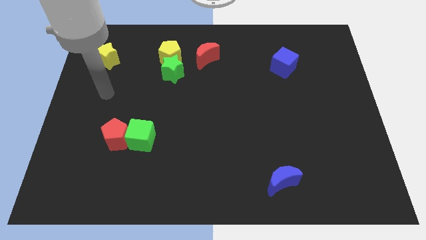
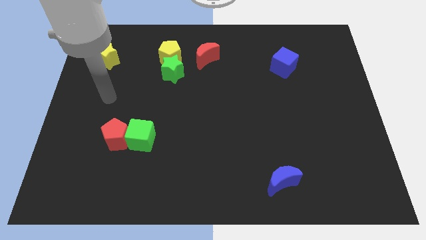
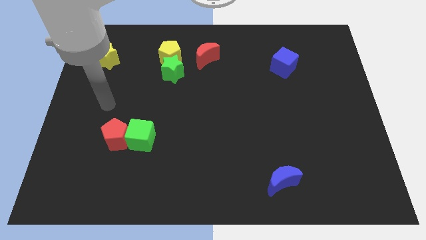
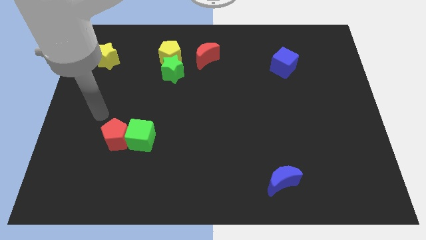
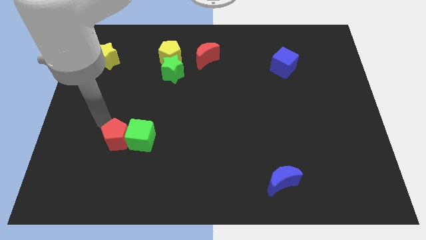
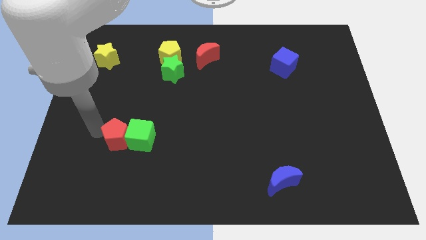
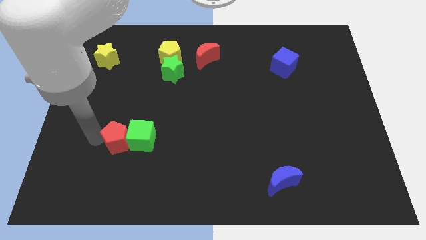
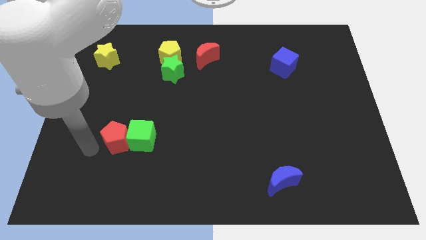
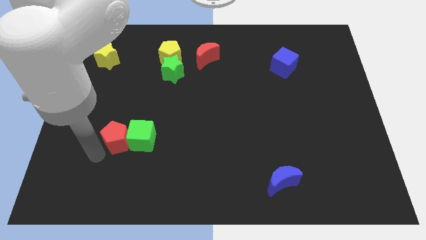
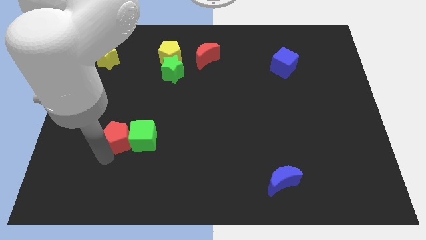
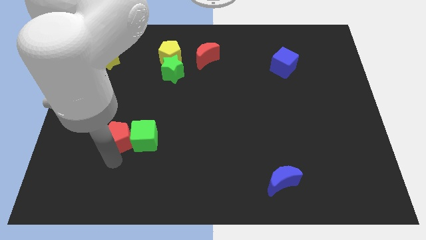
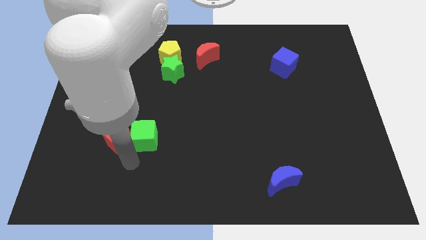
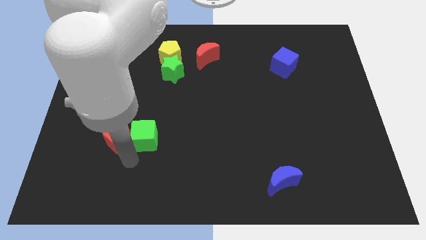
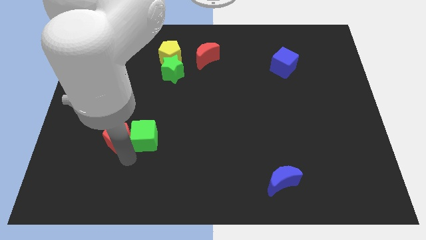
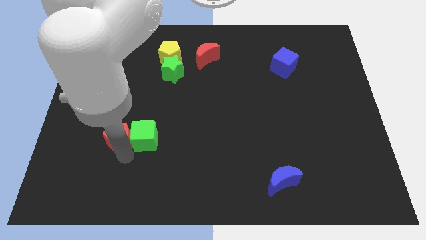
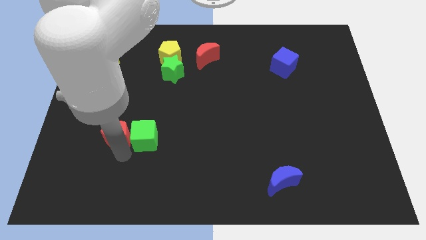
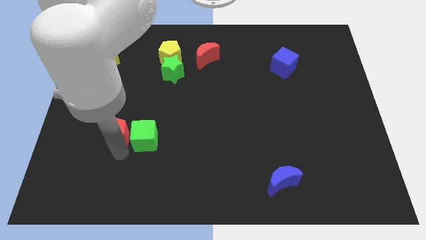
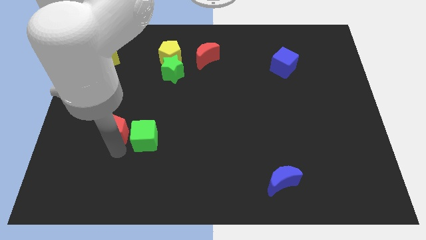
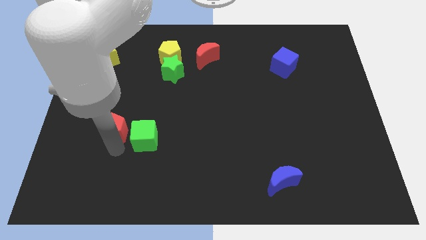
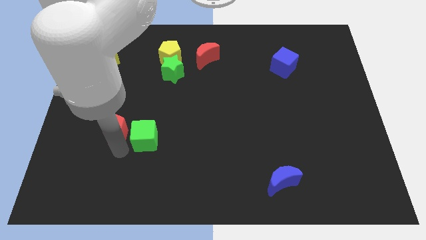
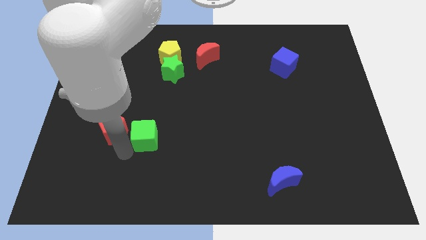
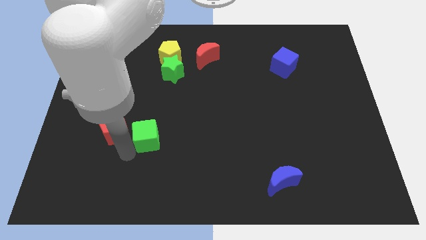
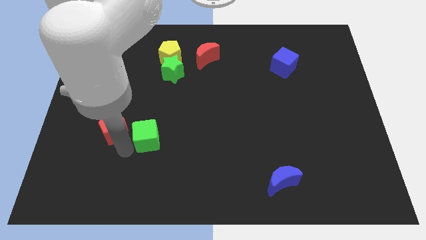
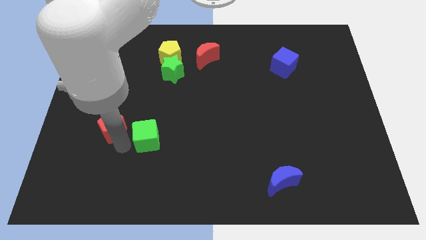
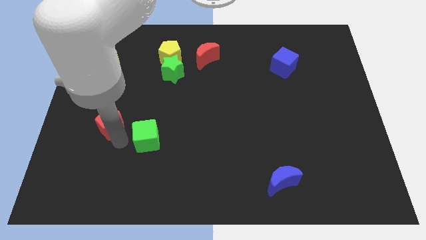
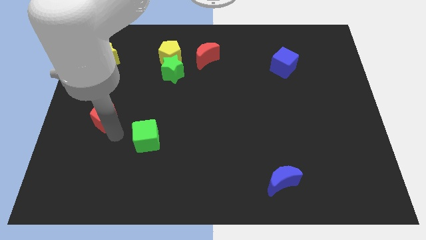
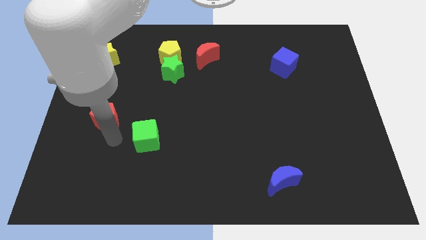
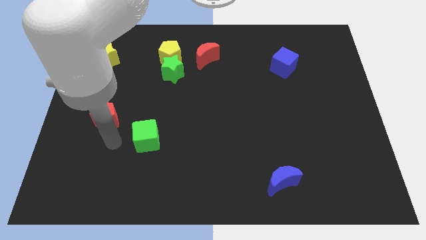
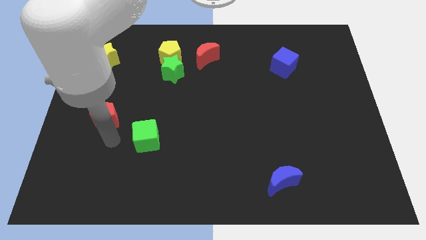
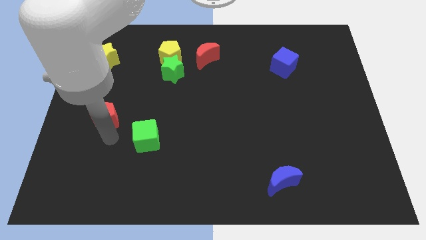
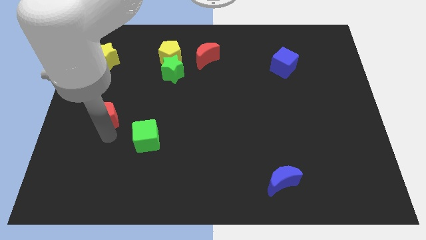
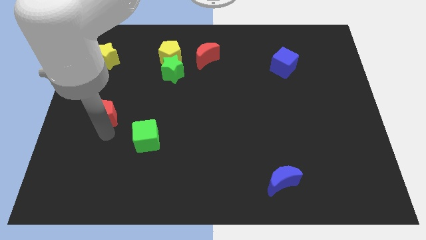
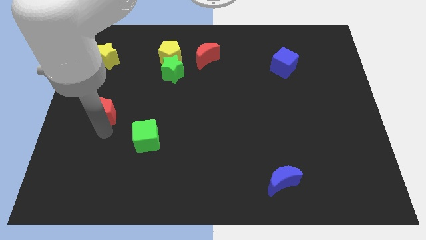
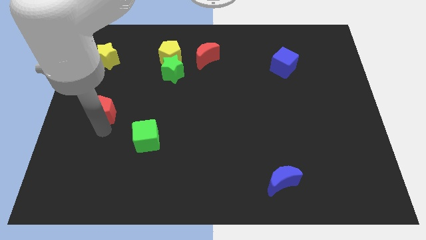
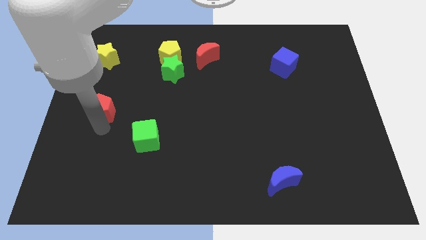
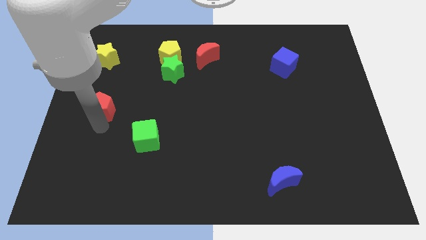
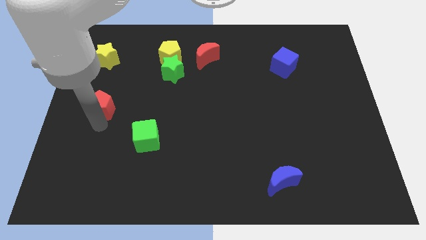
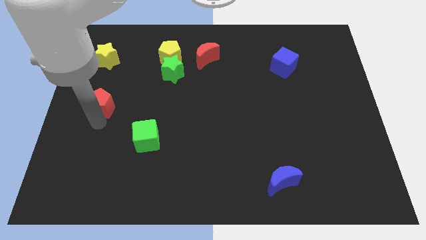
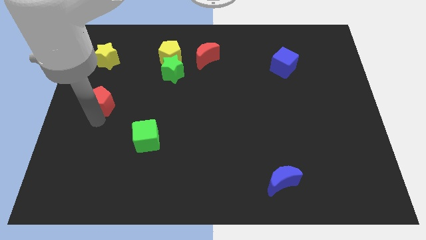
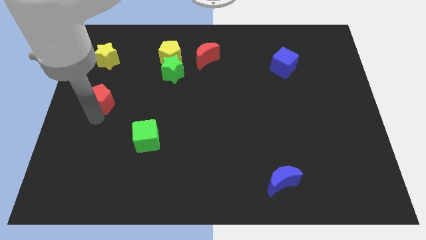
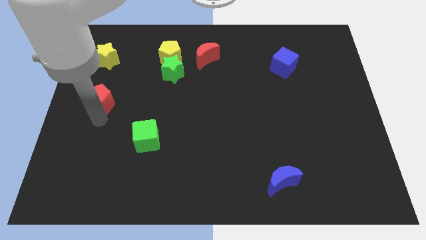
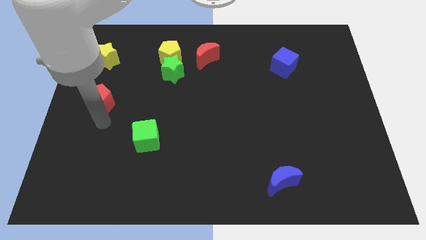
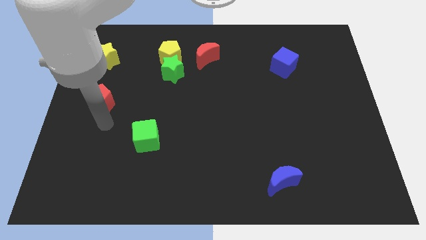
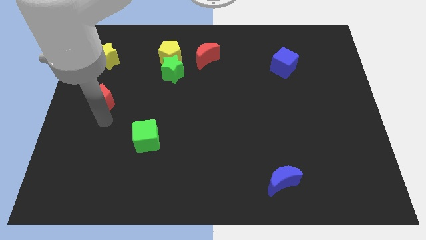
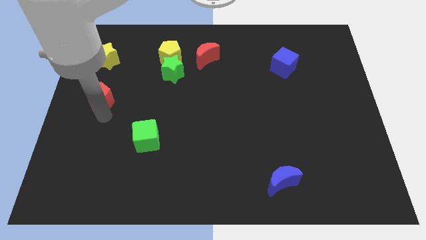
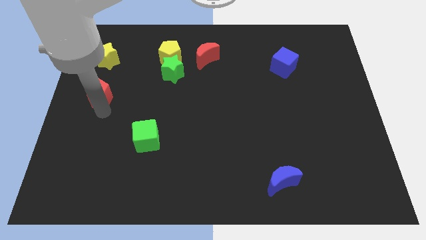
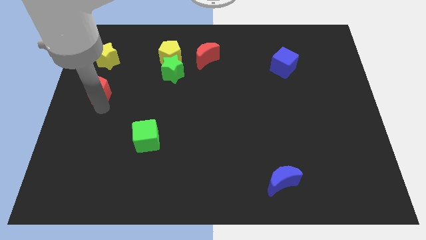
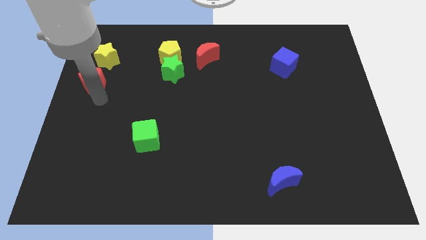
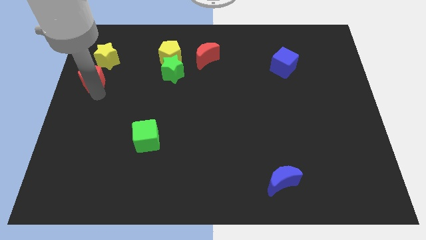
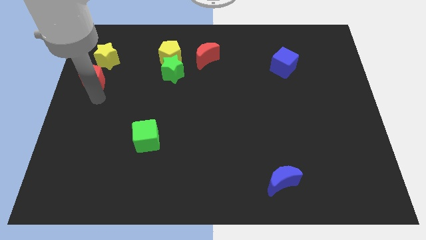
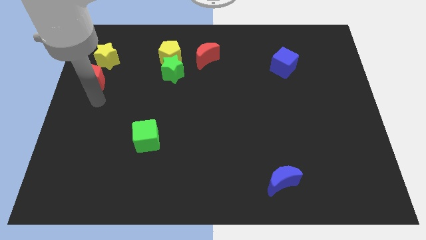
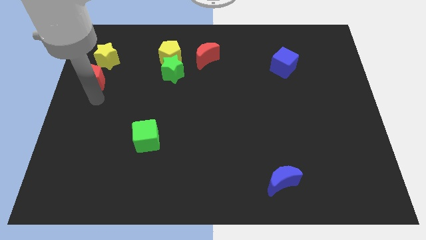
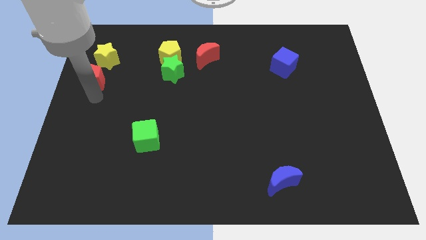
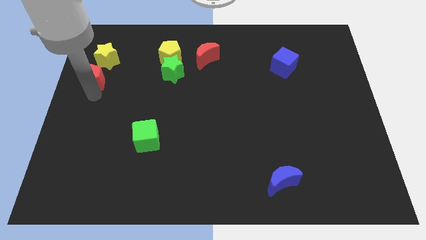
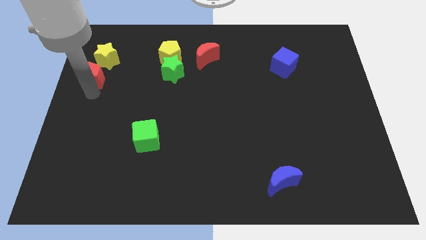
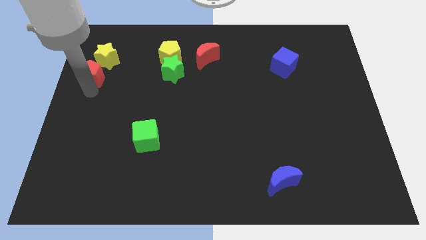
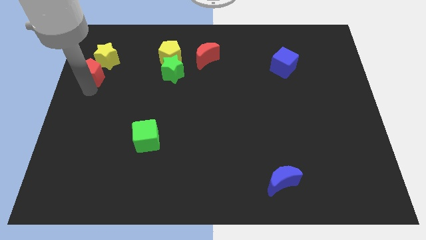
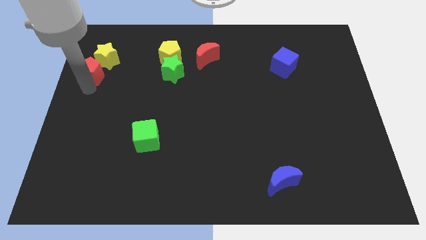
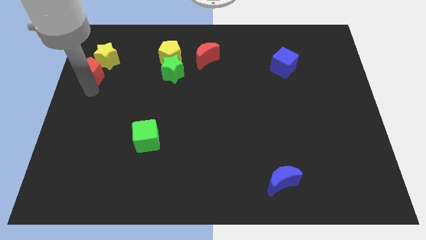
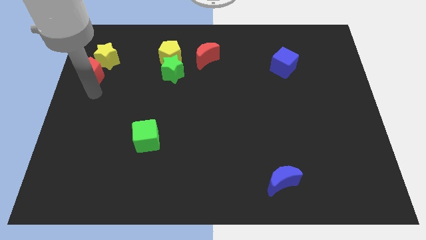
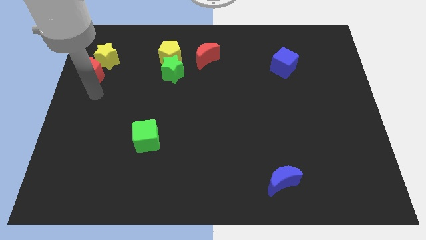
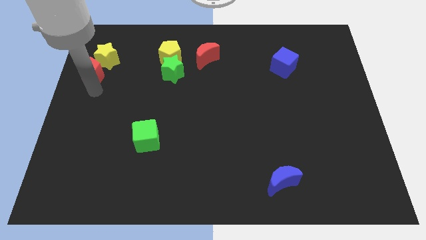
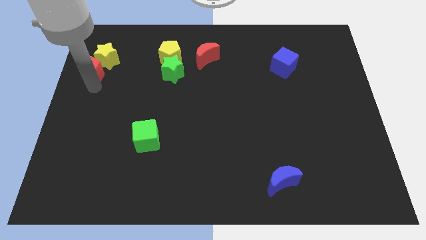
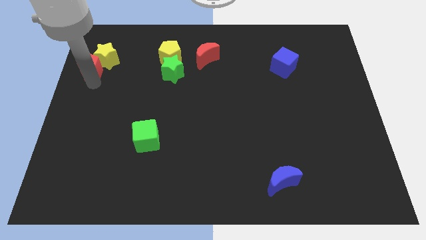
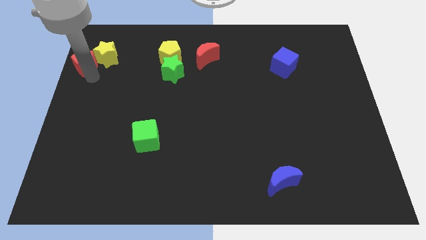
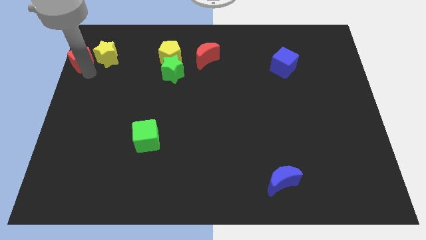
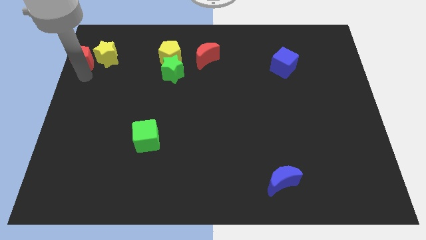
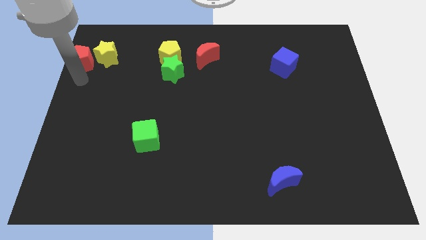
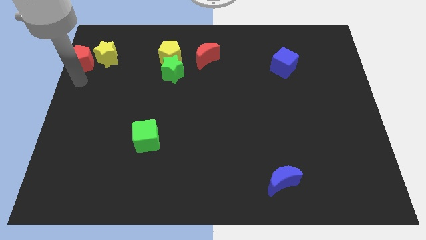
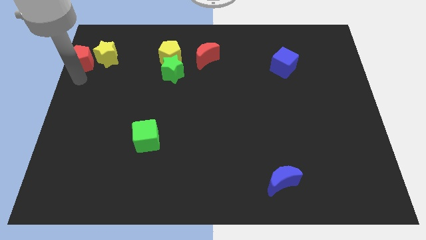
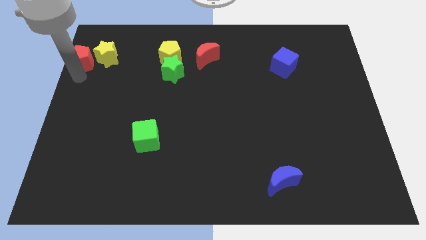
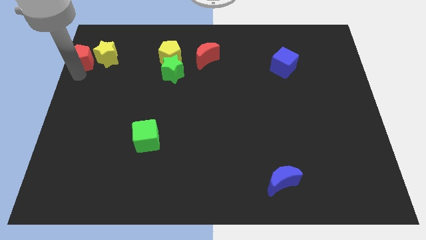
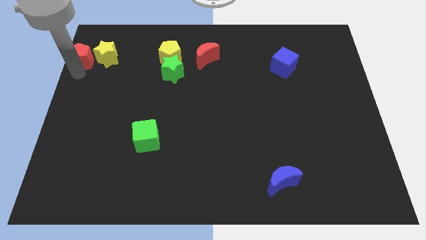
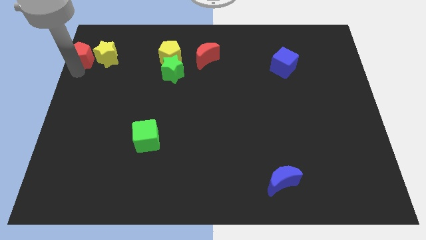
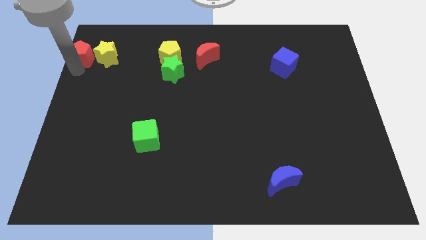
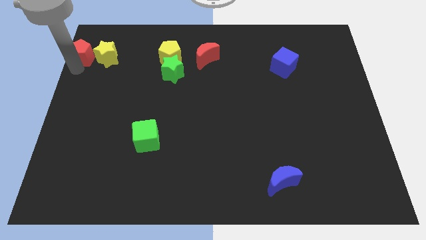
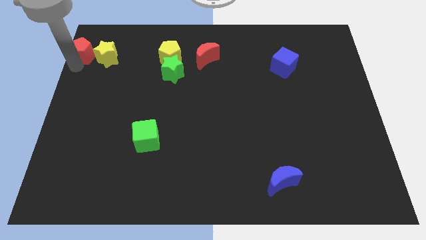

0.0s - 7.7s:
move the red pentagon to the top left corner
